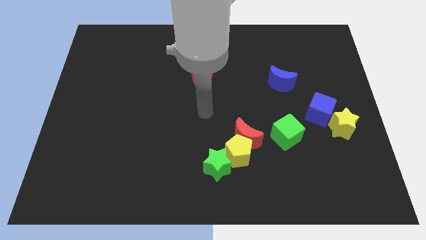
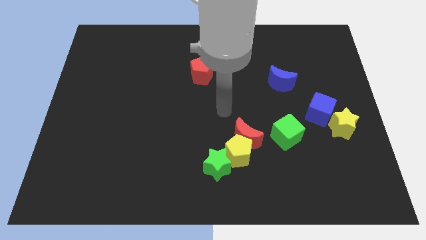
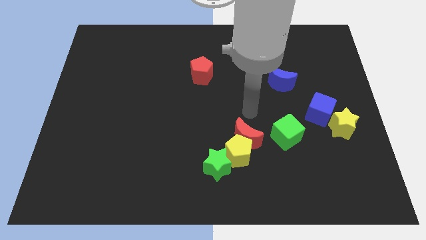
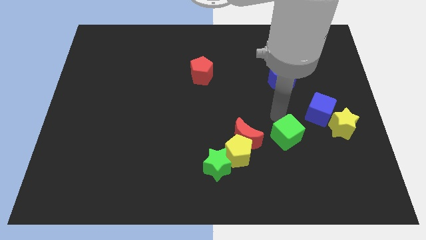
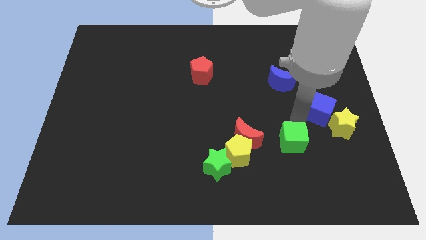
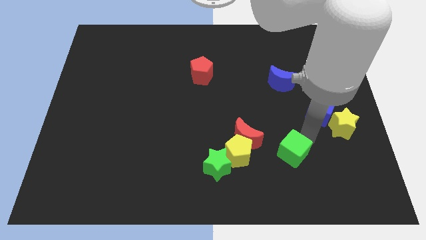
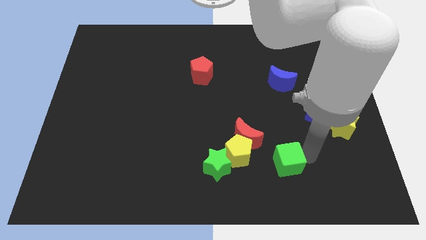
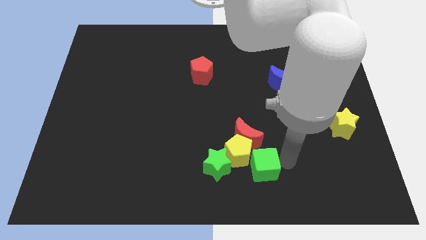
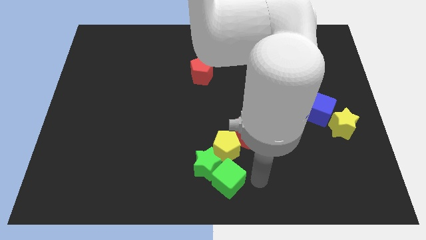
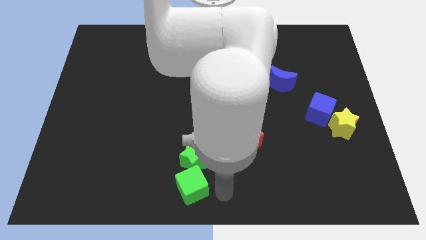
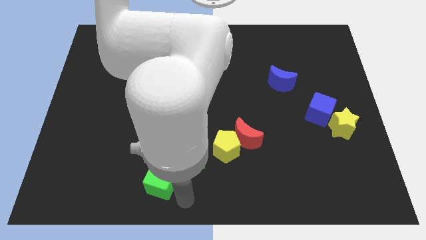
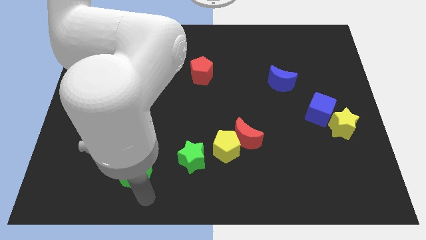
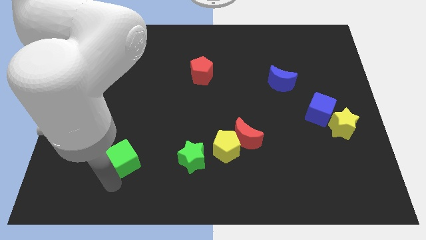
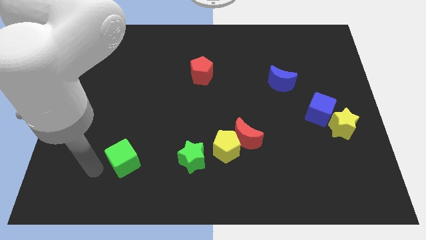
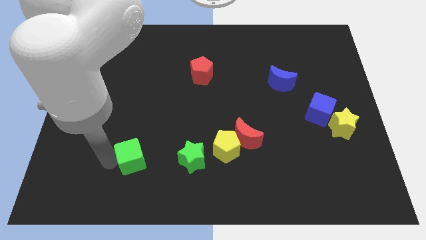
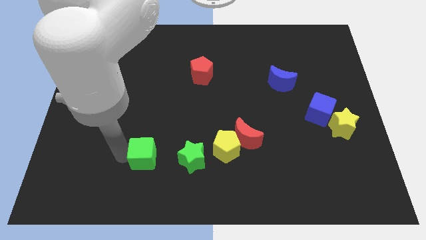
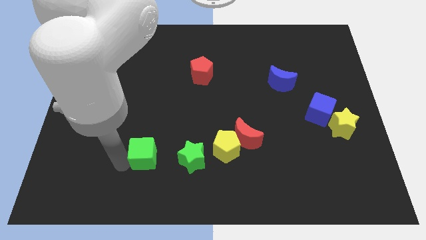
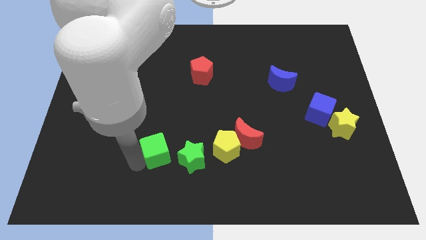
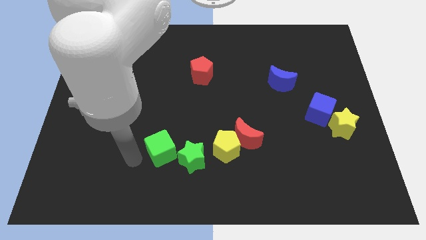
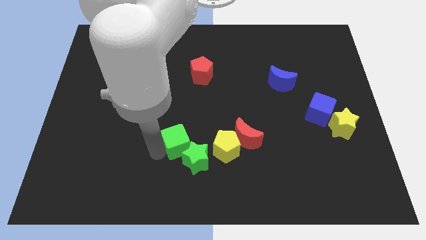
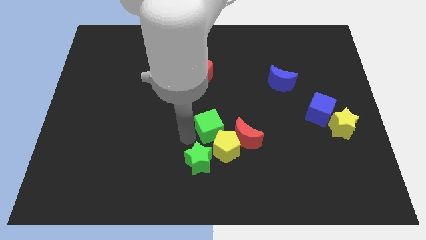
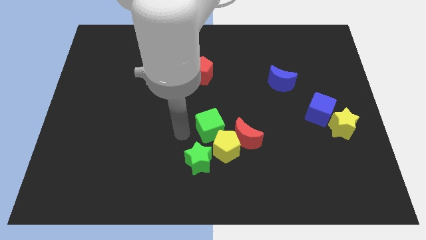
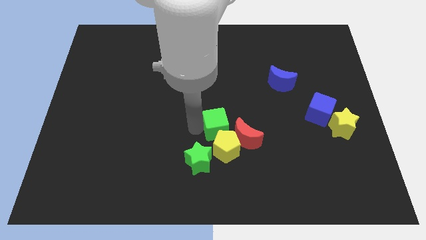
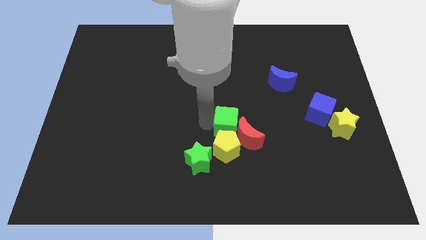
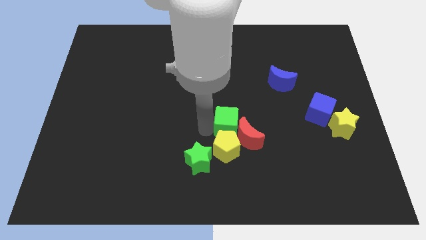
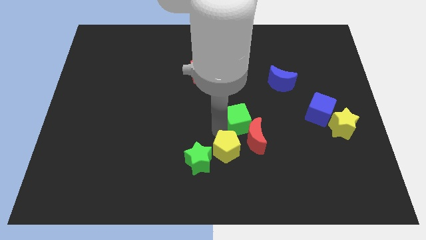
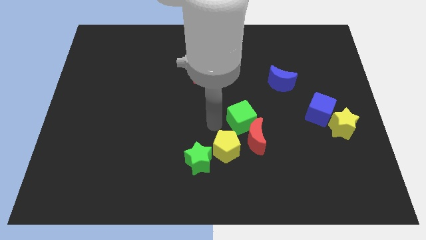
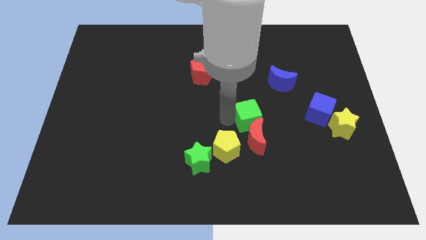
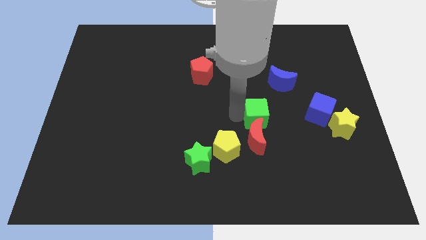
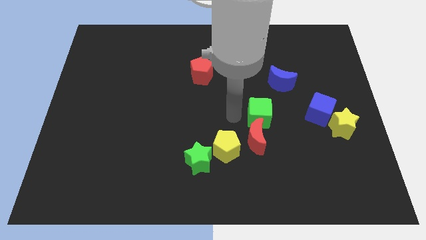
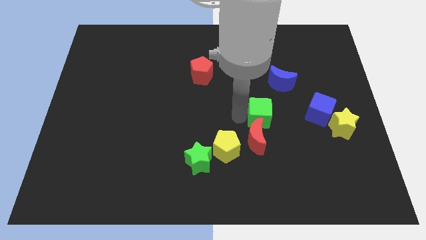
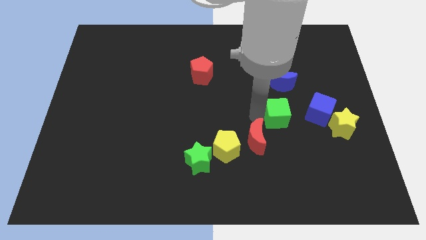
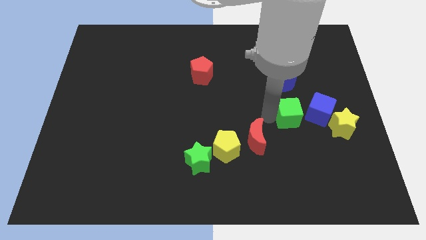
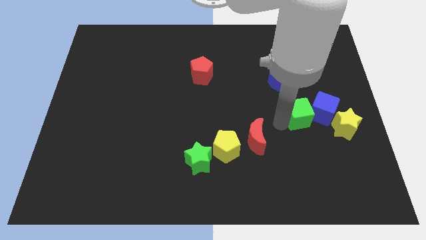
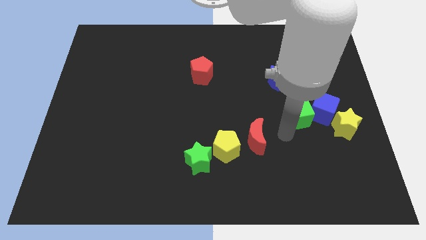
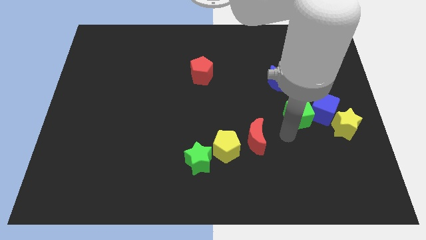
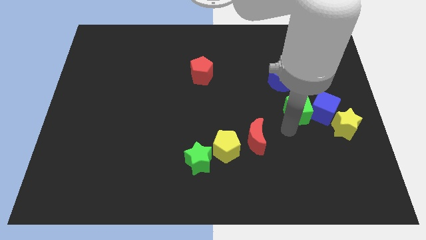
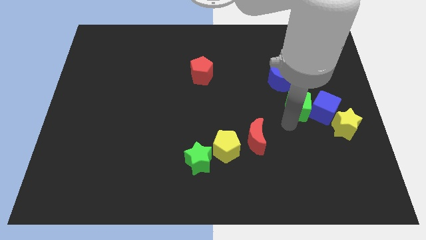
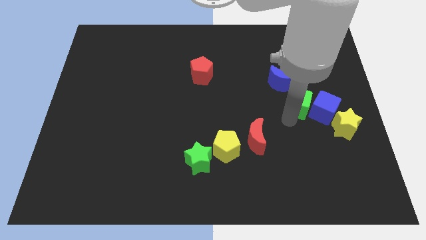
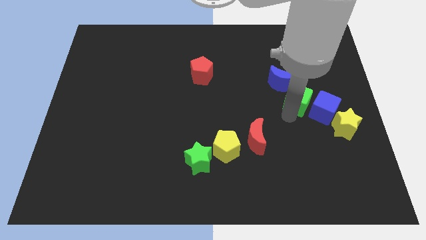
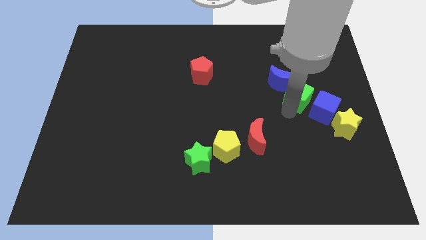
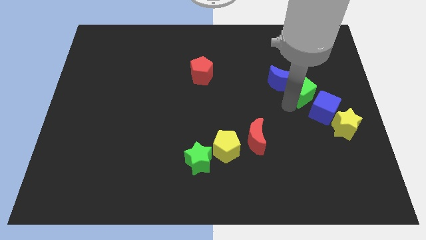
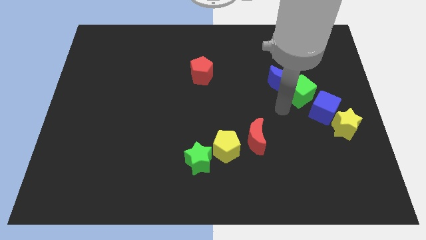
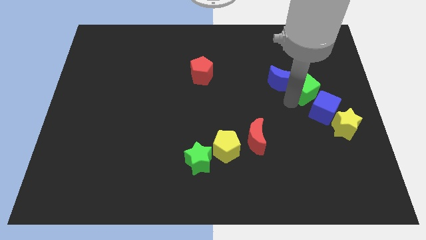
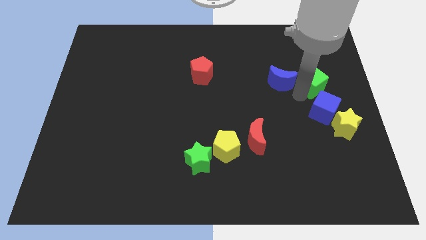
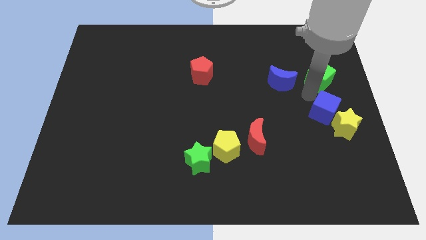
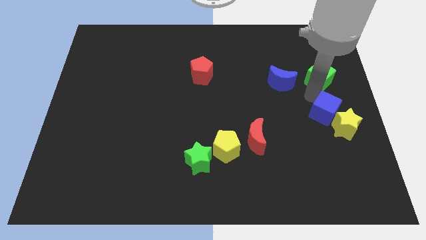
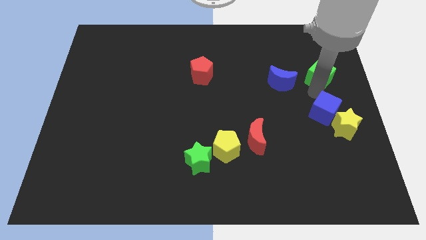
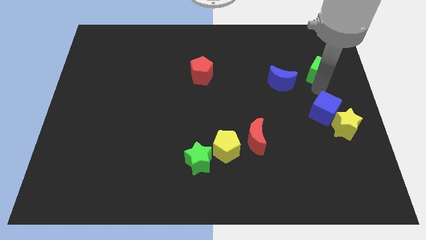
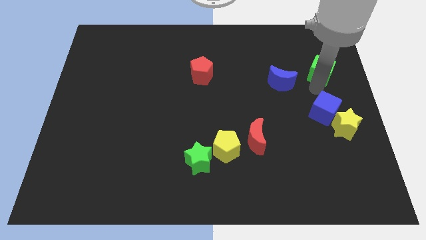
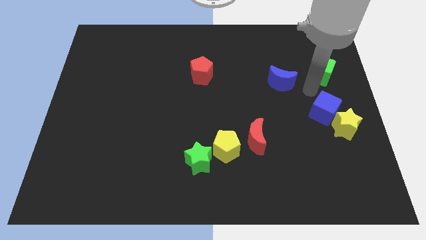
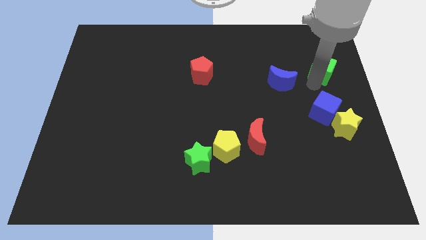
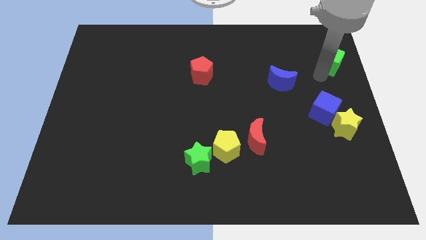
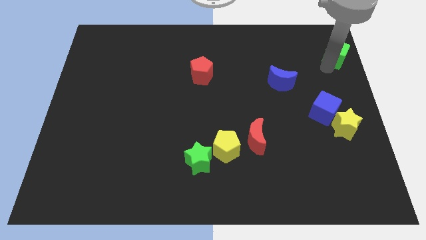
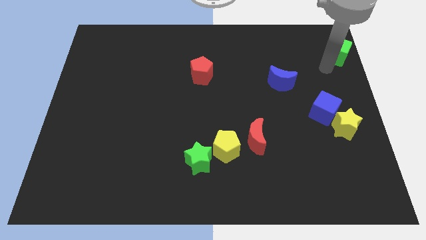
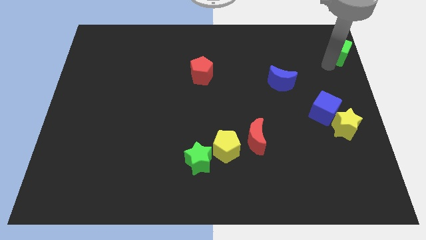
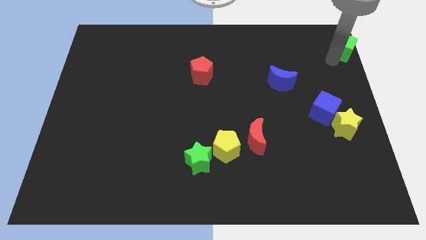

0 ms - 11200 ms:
move the green cube to the upper right corner

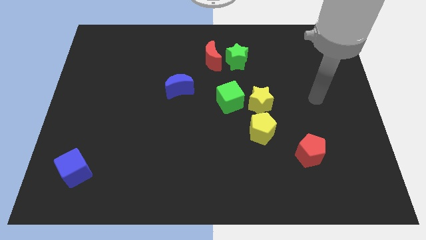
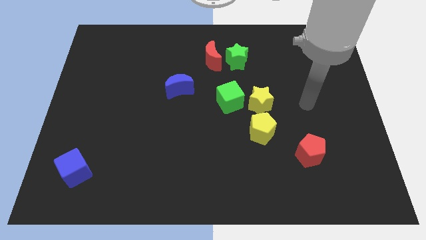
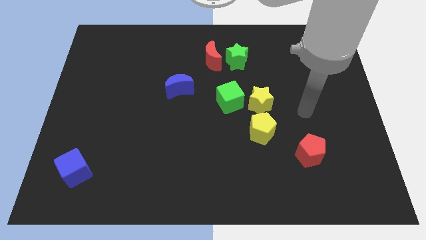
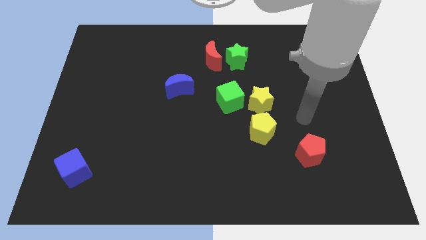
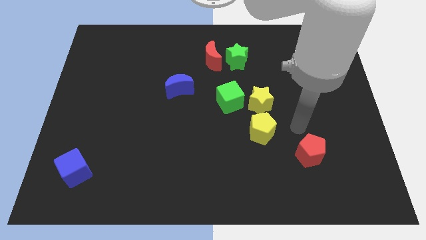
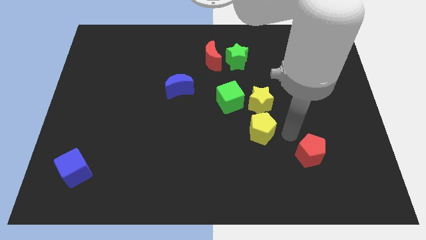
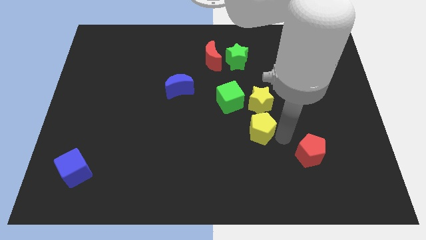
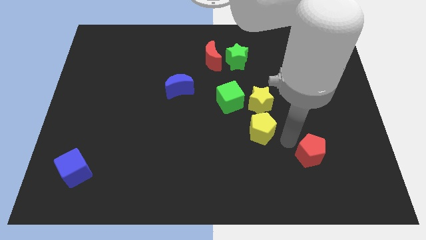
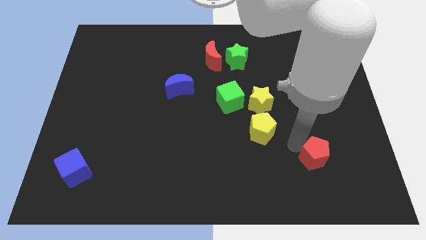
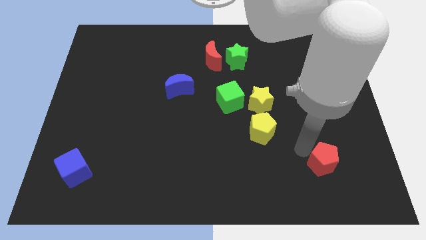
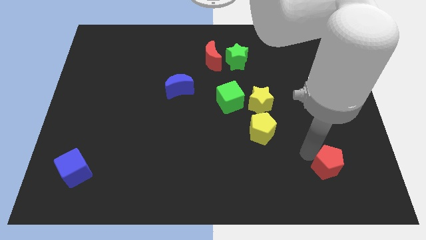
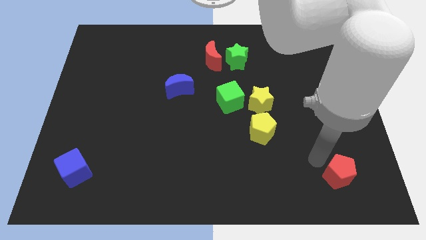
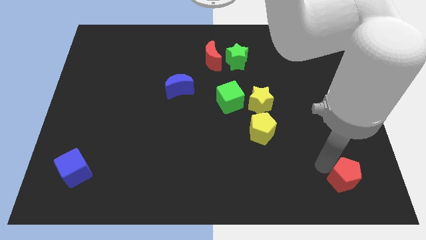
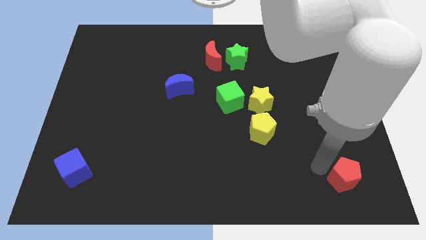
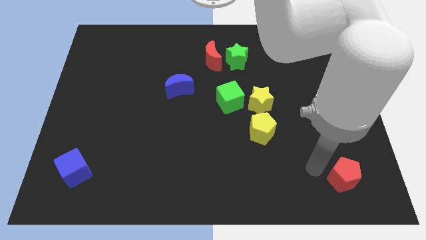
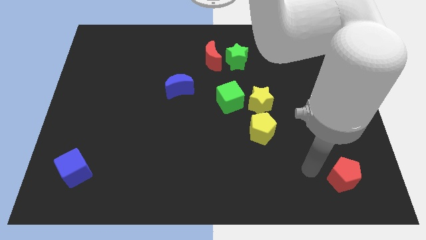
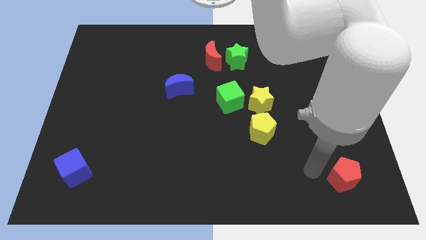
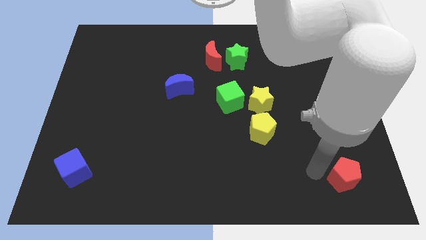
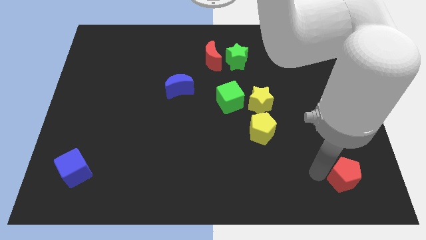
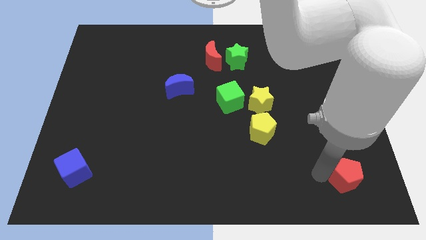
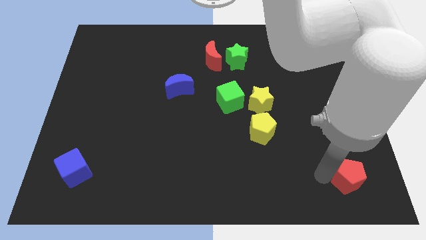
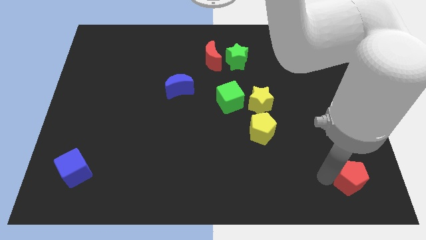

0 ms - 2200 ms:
move the red pentagon to the bottom right
